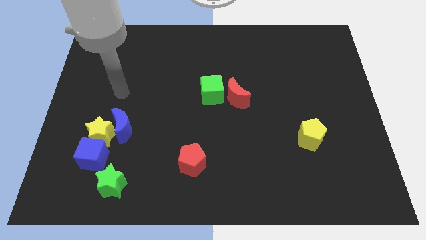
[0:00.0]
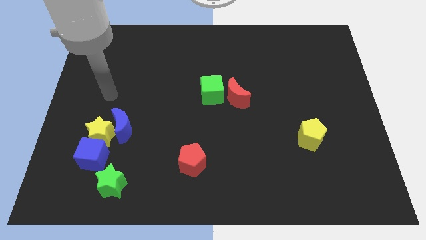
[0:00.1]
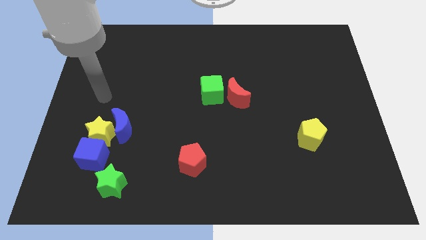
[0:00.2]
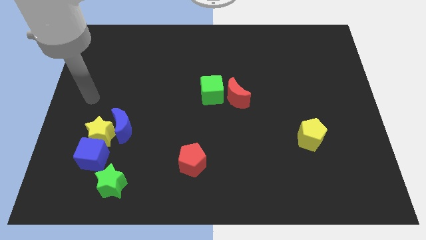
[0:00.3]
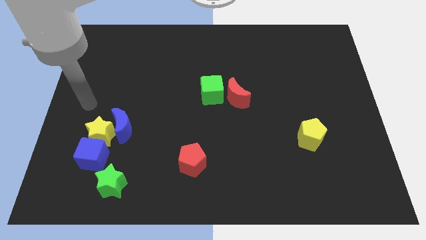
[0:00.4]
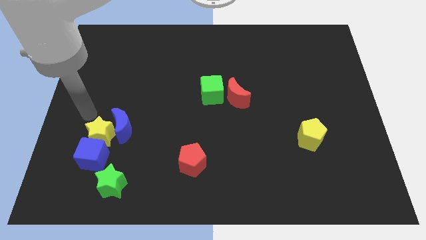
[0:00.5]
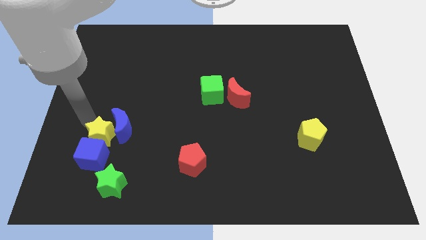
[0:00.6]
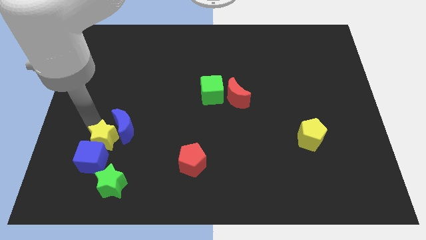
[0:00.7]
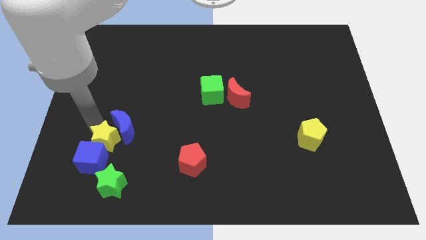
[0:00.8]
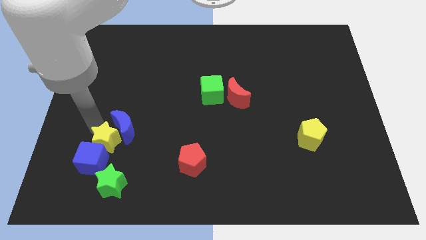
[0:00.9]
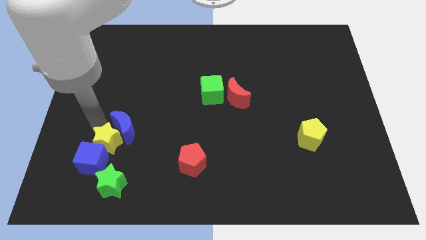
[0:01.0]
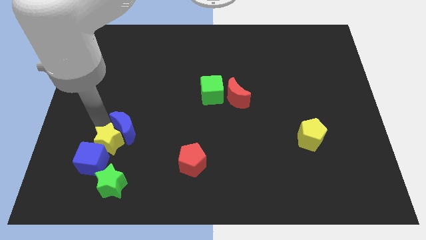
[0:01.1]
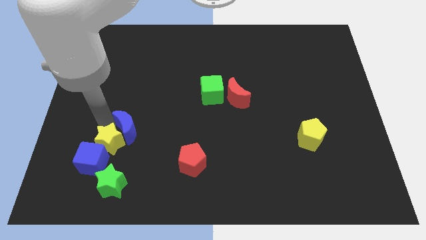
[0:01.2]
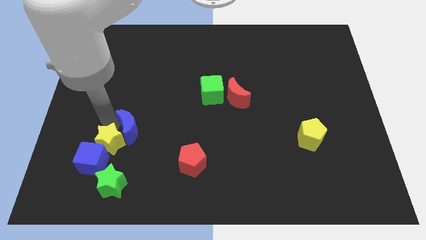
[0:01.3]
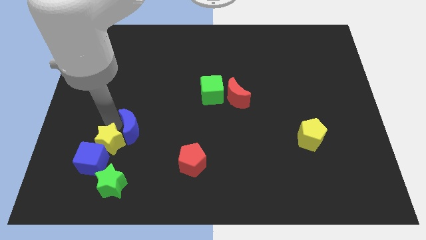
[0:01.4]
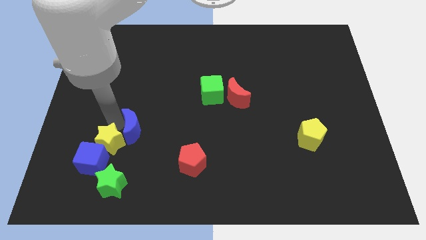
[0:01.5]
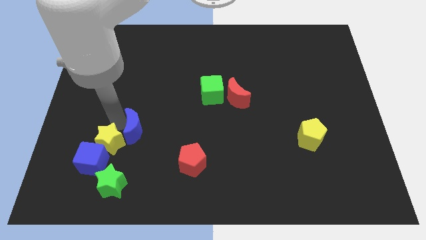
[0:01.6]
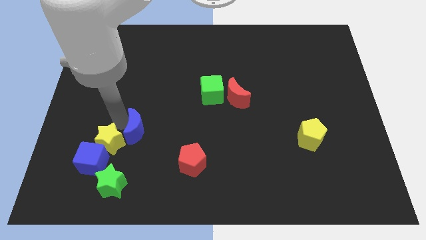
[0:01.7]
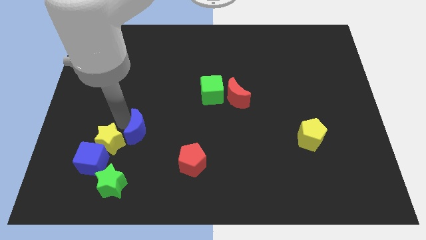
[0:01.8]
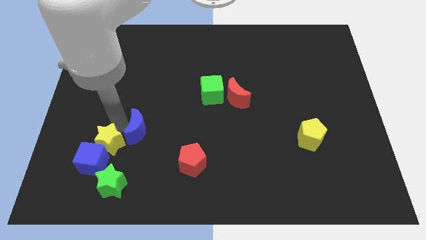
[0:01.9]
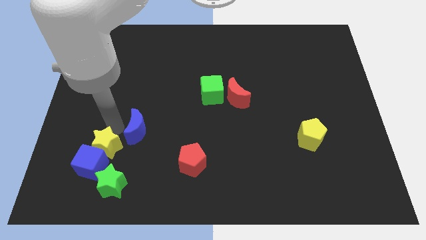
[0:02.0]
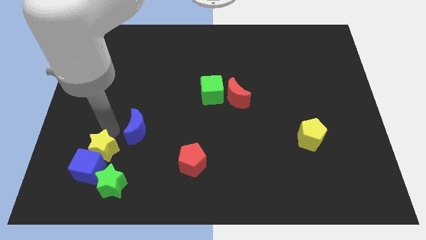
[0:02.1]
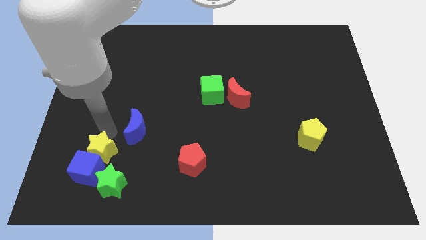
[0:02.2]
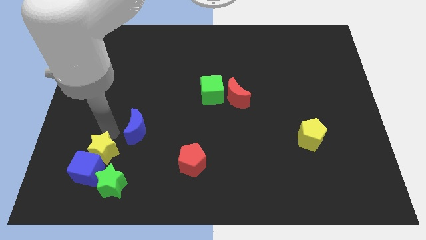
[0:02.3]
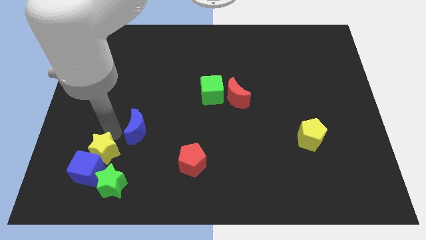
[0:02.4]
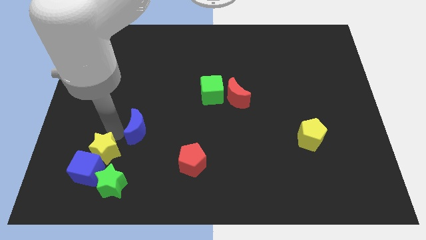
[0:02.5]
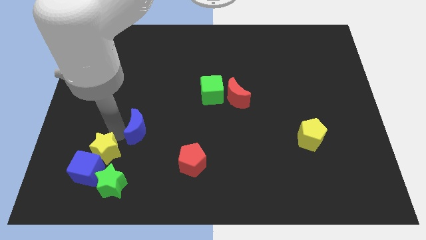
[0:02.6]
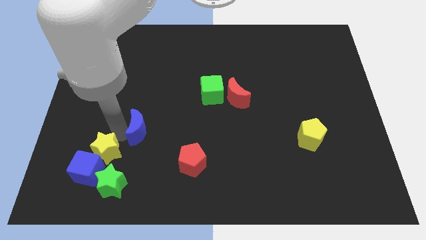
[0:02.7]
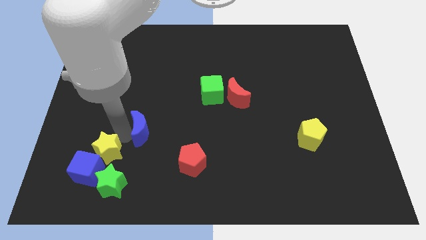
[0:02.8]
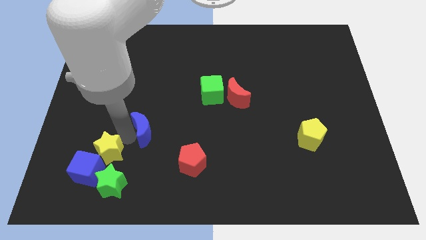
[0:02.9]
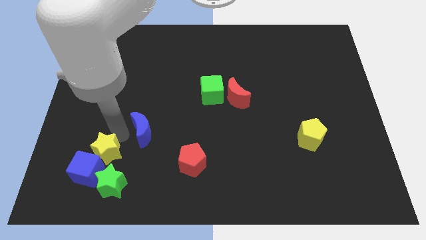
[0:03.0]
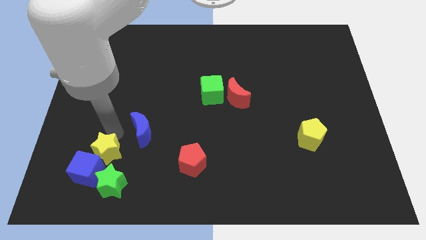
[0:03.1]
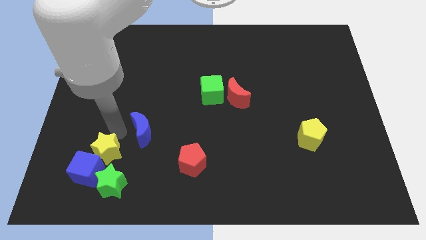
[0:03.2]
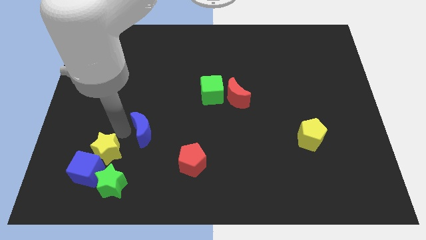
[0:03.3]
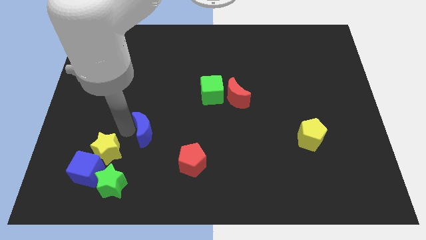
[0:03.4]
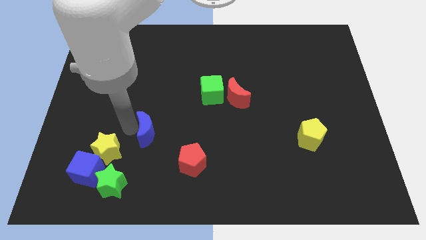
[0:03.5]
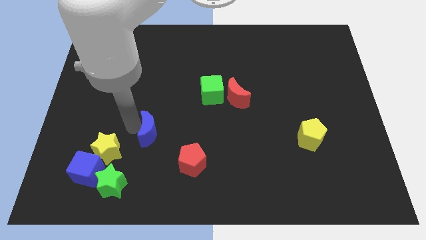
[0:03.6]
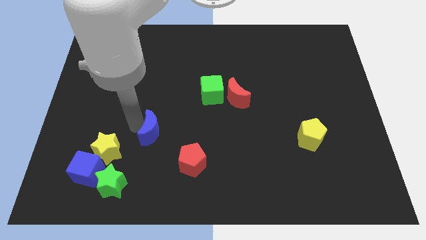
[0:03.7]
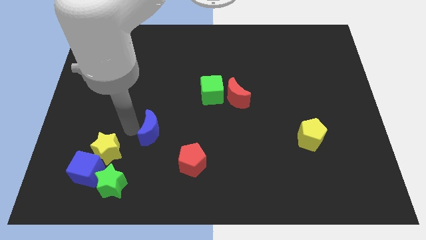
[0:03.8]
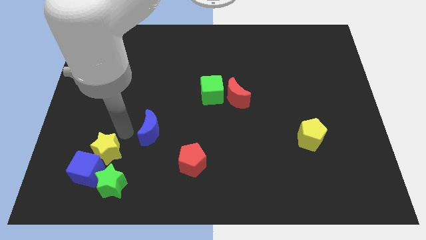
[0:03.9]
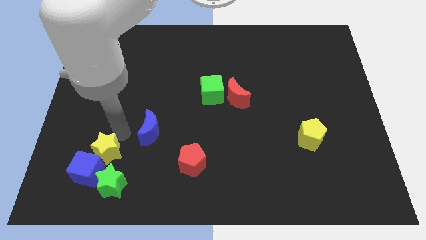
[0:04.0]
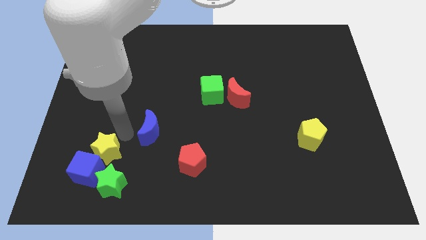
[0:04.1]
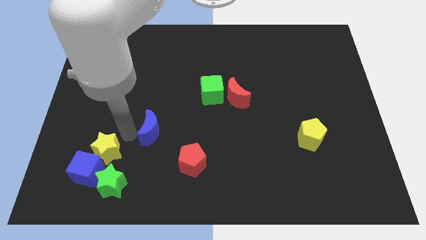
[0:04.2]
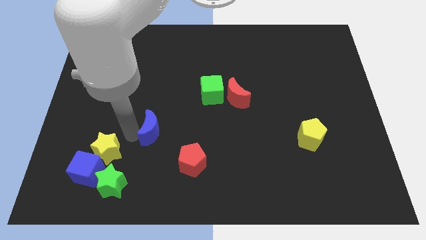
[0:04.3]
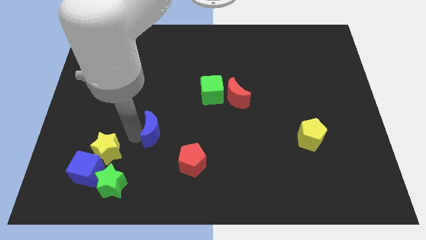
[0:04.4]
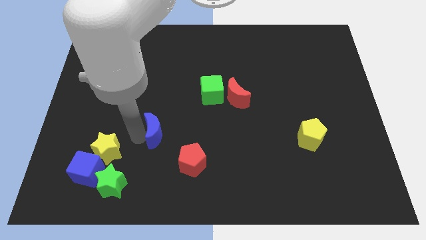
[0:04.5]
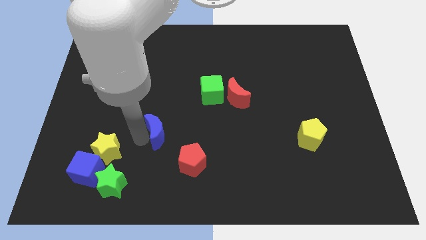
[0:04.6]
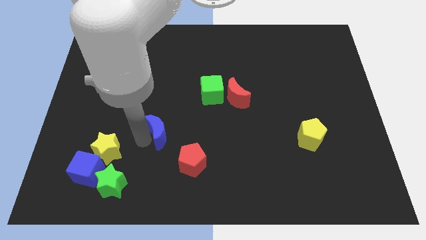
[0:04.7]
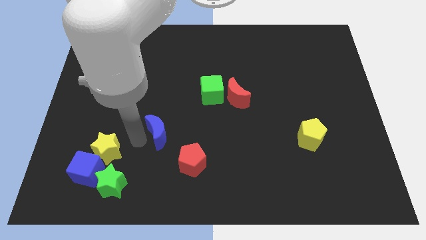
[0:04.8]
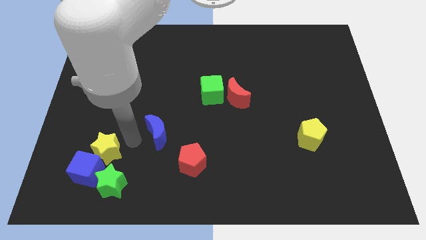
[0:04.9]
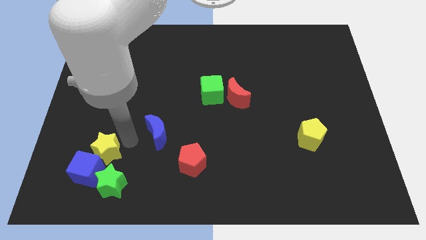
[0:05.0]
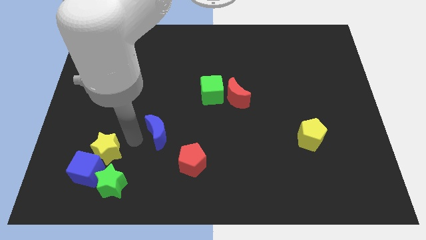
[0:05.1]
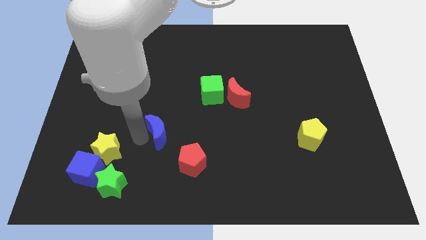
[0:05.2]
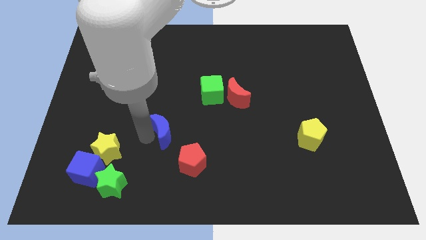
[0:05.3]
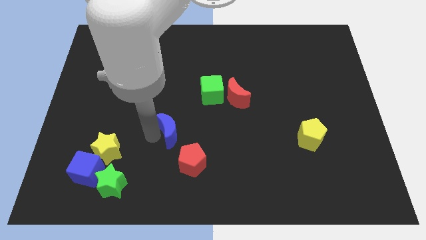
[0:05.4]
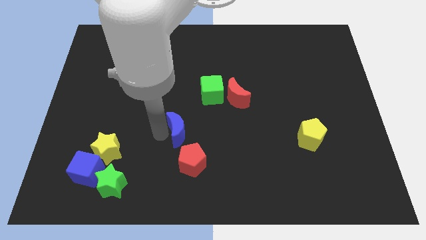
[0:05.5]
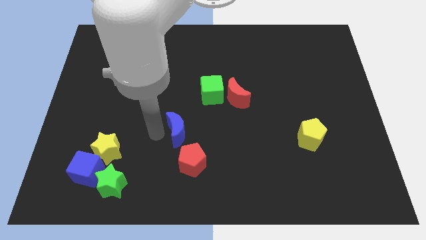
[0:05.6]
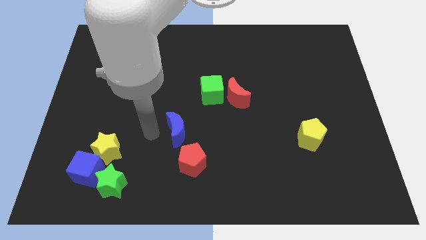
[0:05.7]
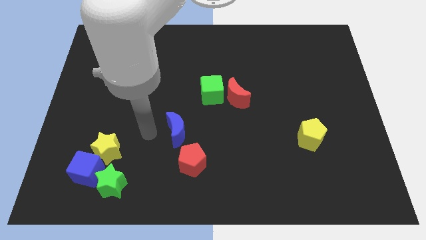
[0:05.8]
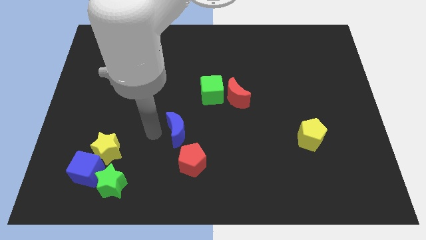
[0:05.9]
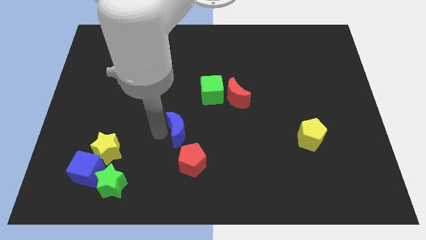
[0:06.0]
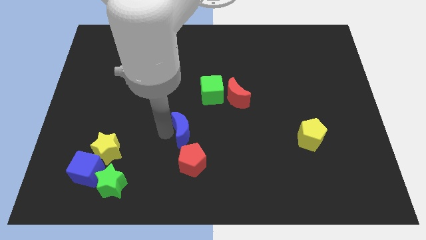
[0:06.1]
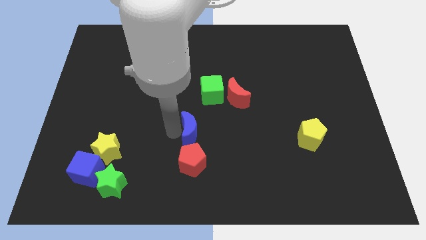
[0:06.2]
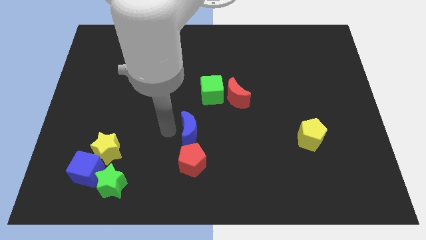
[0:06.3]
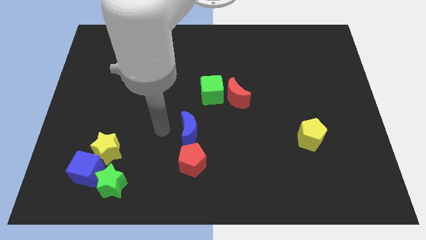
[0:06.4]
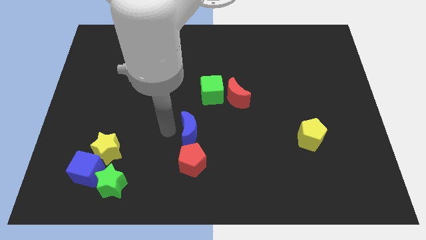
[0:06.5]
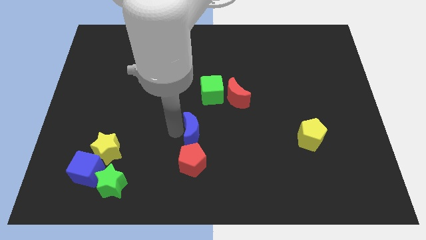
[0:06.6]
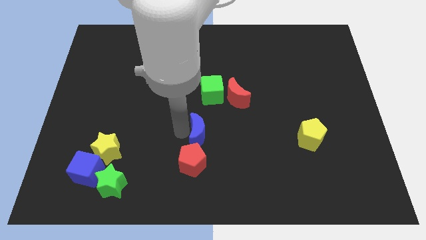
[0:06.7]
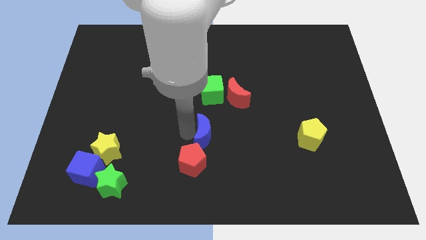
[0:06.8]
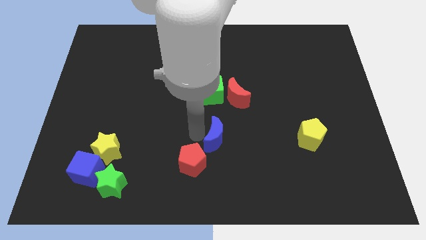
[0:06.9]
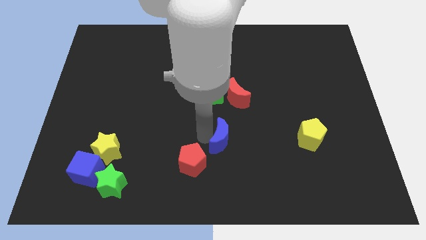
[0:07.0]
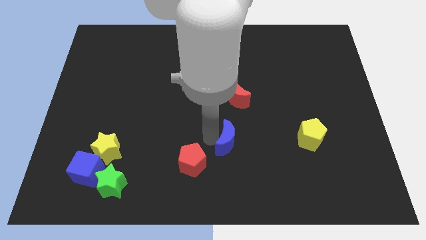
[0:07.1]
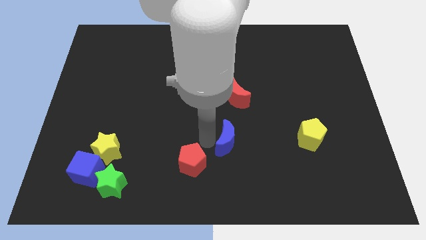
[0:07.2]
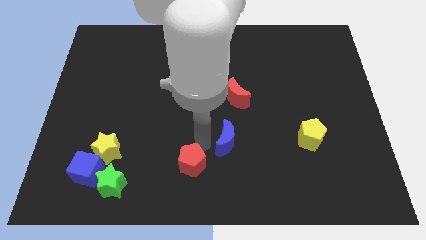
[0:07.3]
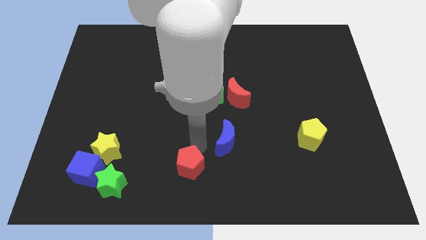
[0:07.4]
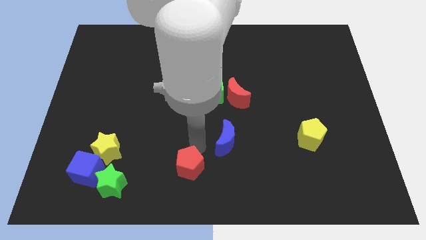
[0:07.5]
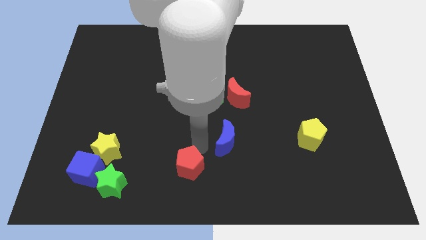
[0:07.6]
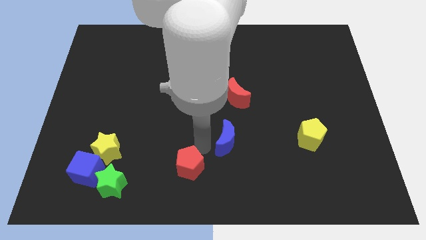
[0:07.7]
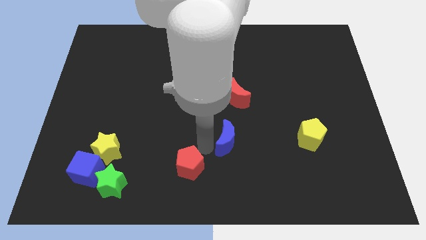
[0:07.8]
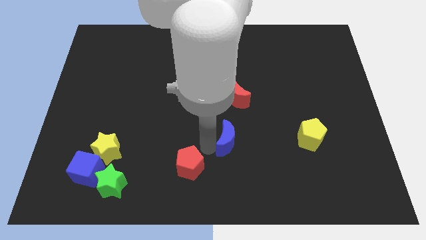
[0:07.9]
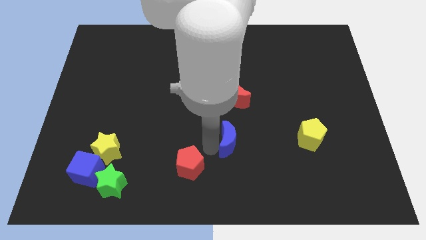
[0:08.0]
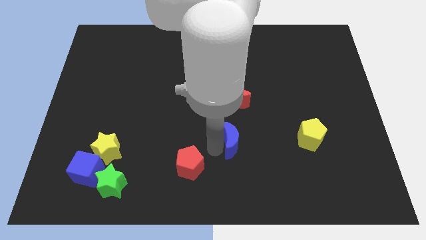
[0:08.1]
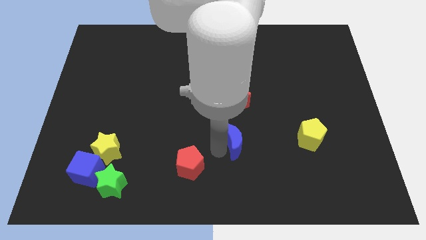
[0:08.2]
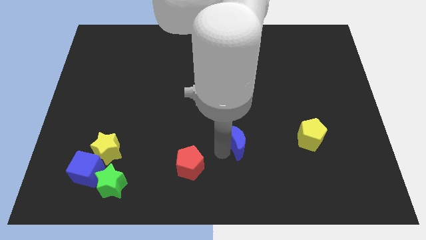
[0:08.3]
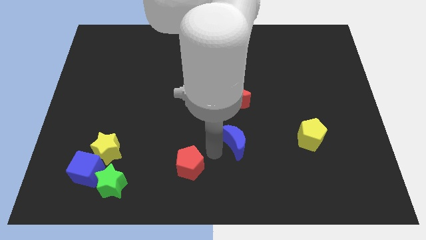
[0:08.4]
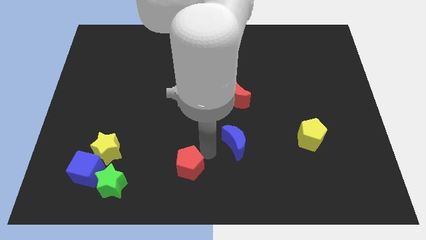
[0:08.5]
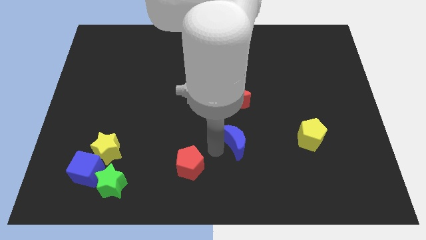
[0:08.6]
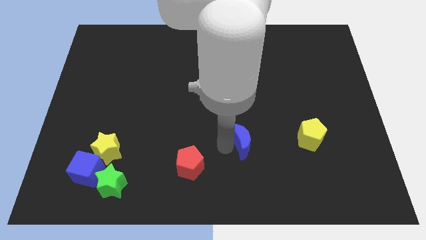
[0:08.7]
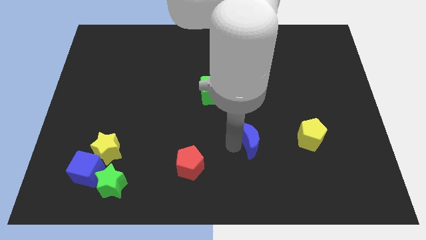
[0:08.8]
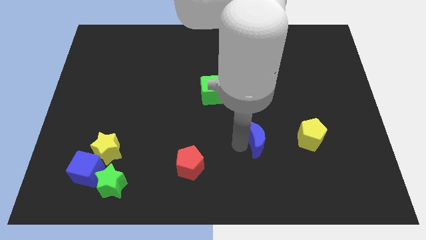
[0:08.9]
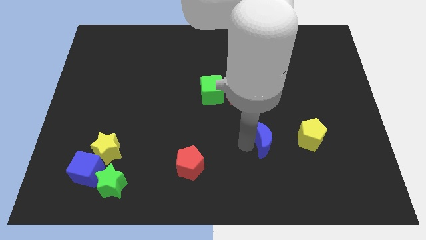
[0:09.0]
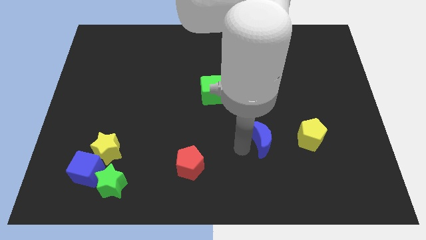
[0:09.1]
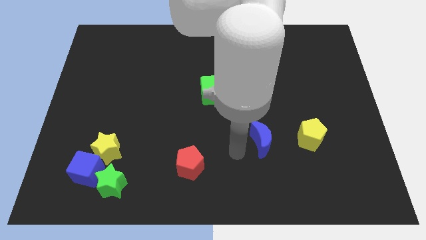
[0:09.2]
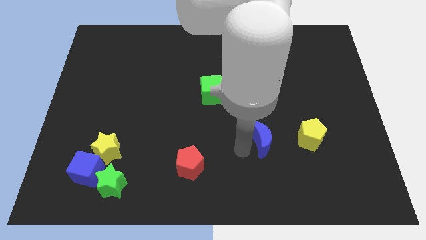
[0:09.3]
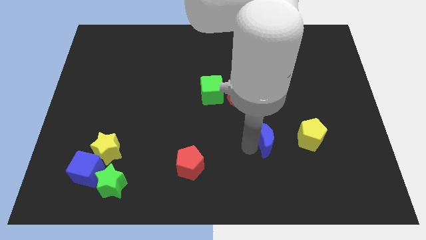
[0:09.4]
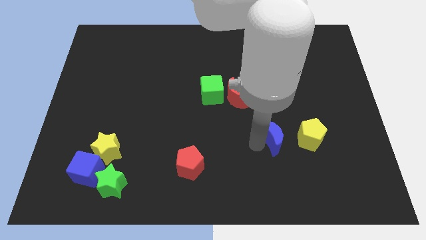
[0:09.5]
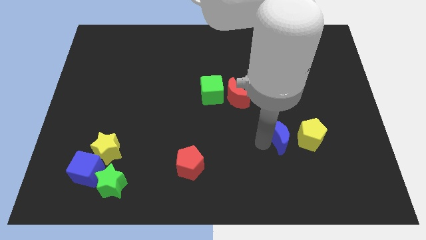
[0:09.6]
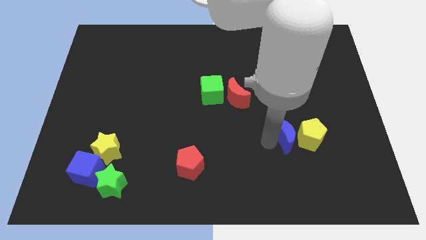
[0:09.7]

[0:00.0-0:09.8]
move the blue moon close to the yellow pentagon
